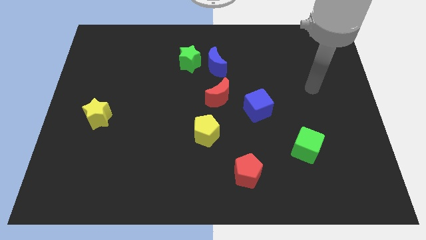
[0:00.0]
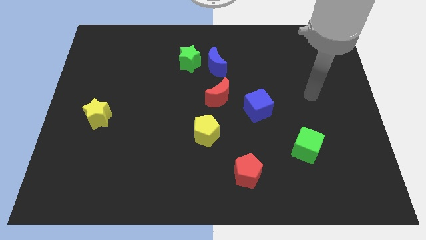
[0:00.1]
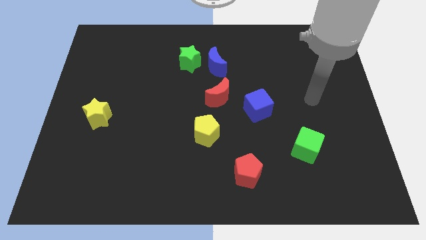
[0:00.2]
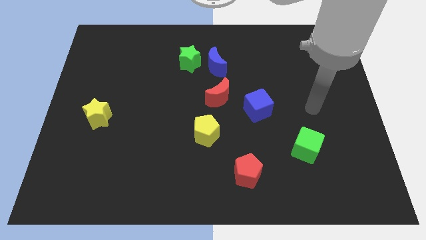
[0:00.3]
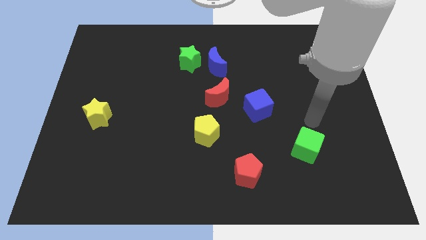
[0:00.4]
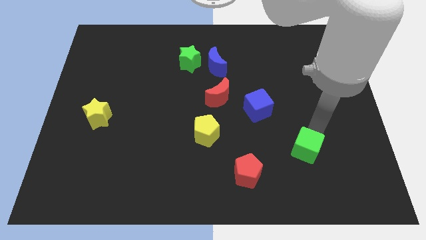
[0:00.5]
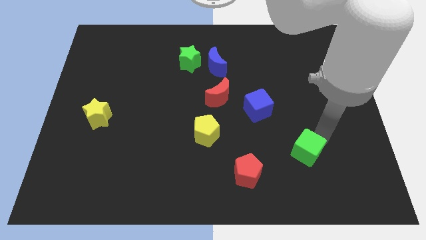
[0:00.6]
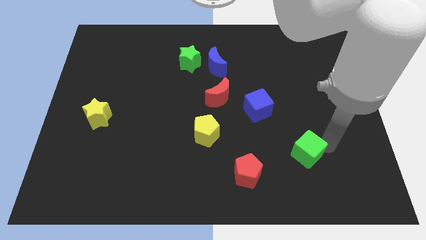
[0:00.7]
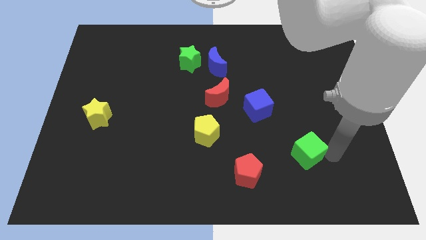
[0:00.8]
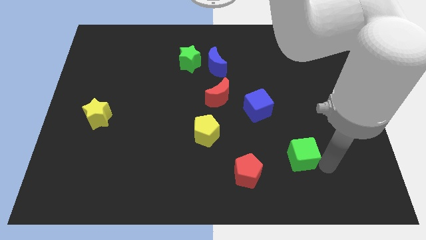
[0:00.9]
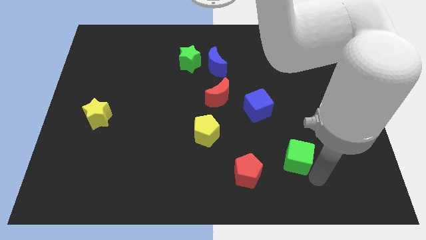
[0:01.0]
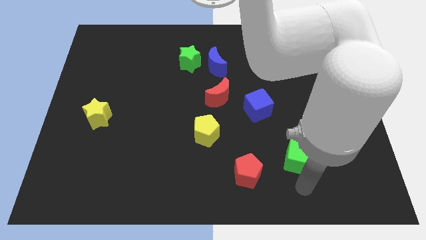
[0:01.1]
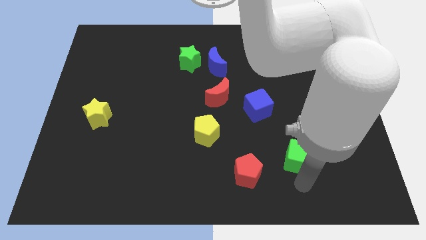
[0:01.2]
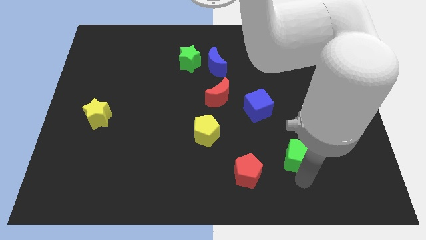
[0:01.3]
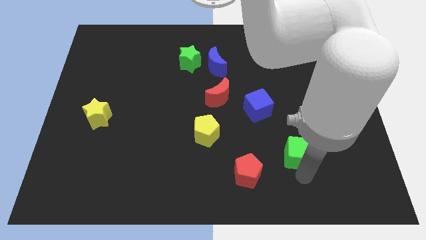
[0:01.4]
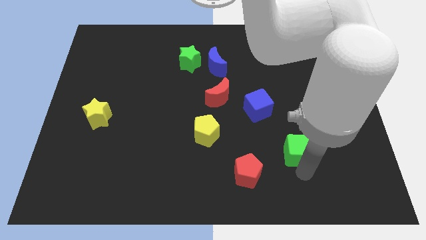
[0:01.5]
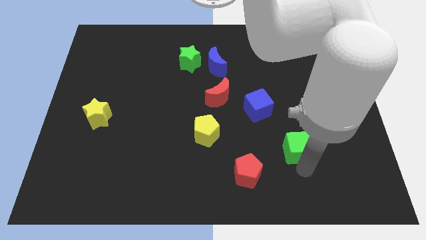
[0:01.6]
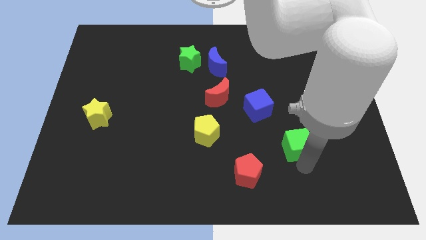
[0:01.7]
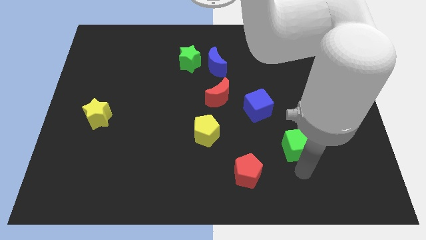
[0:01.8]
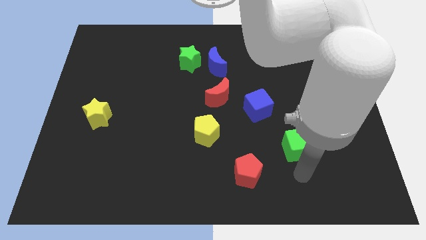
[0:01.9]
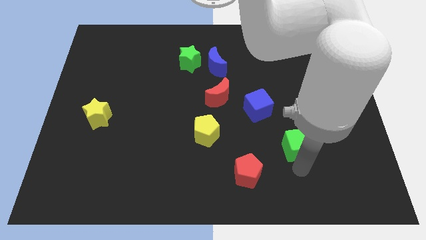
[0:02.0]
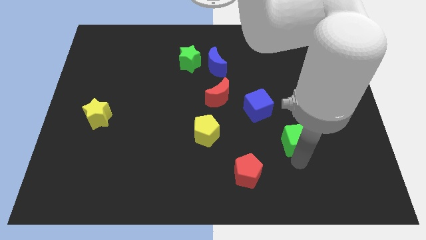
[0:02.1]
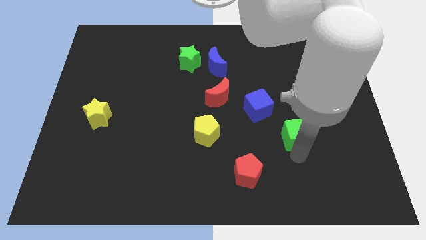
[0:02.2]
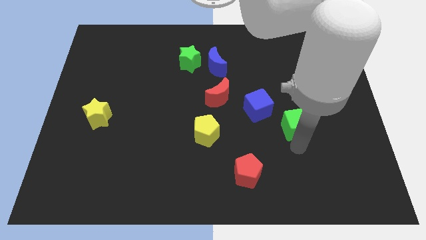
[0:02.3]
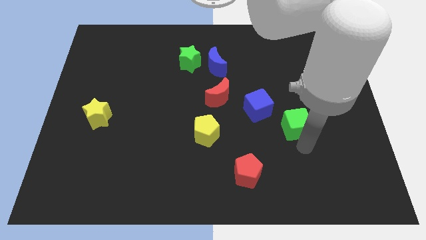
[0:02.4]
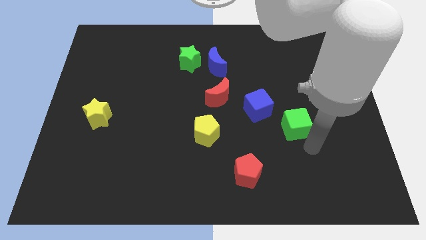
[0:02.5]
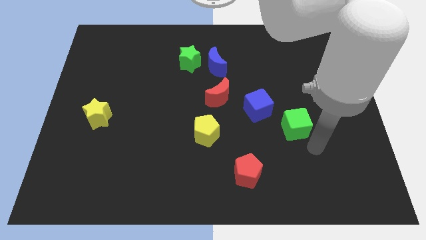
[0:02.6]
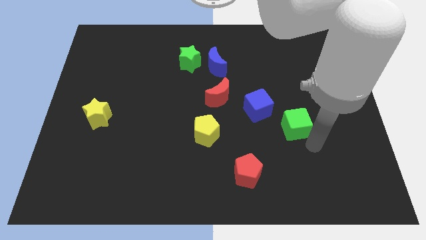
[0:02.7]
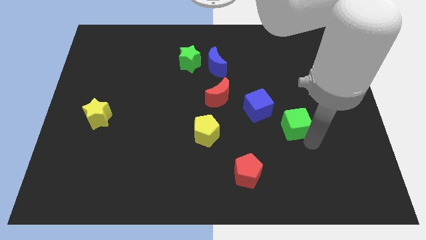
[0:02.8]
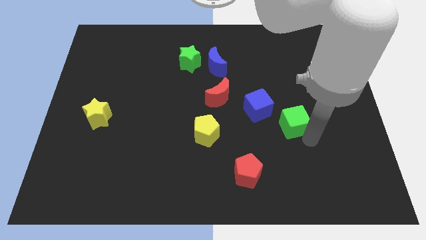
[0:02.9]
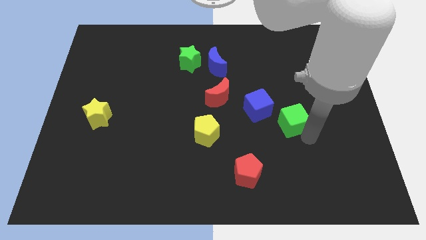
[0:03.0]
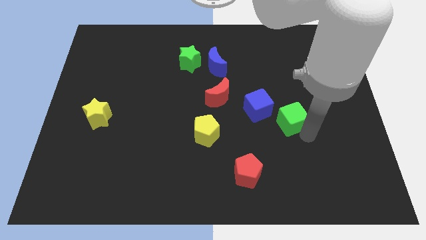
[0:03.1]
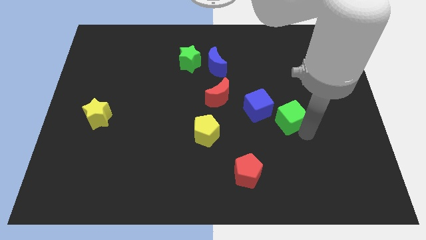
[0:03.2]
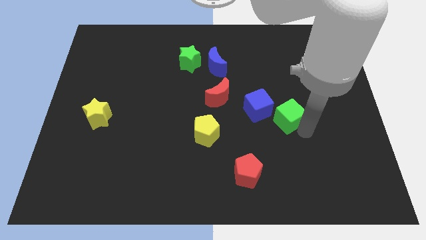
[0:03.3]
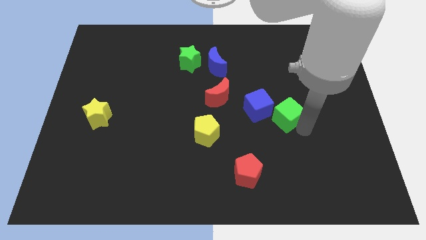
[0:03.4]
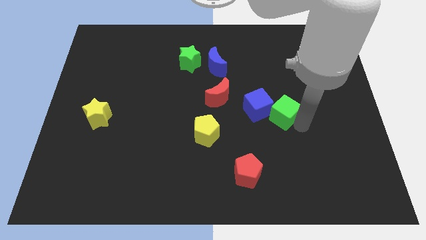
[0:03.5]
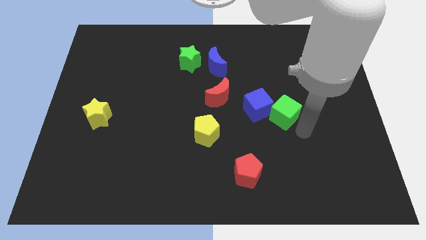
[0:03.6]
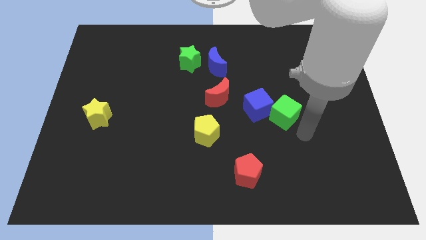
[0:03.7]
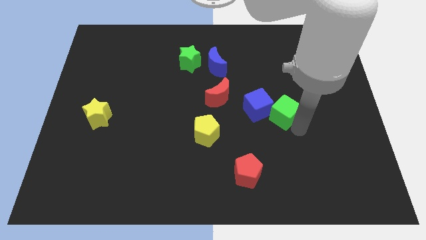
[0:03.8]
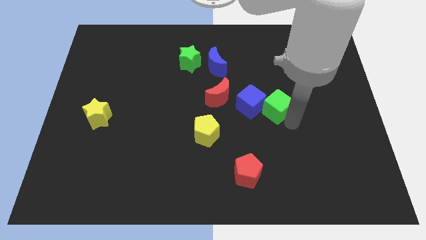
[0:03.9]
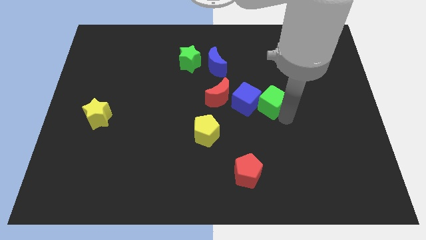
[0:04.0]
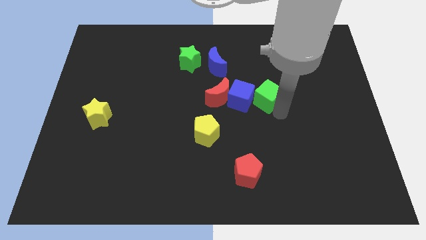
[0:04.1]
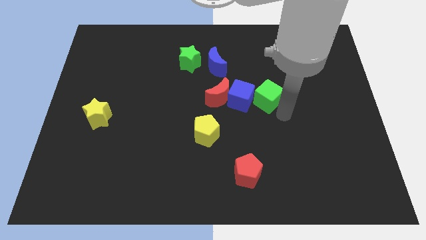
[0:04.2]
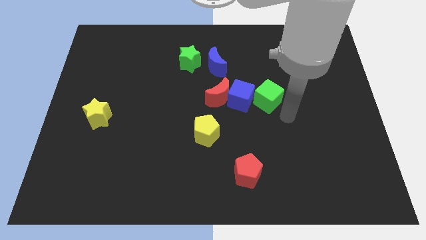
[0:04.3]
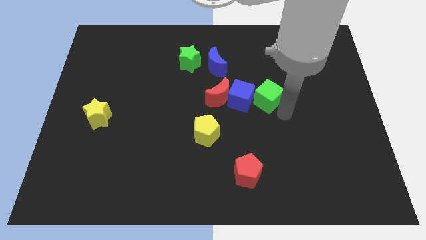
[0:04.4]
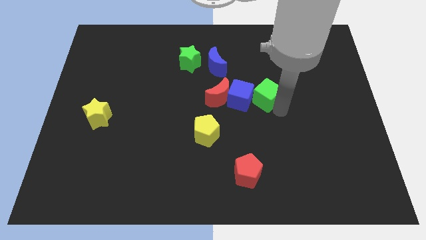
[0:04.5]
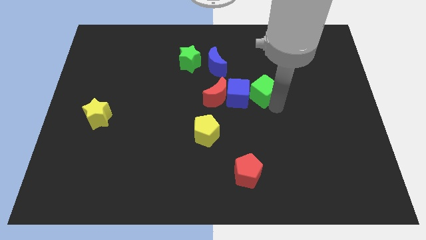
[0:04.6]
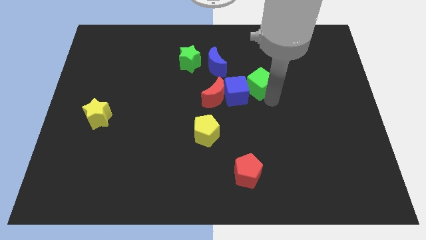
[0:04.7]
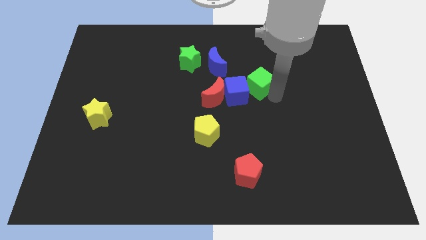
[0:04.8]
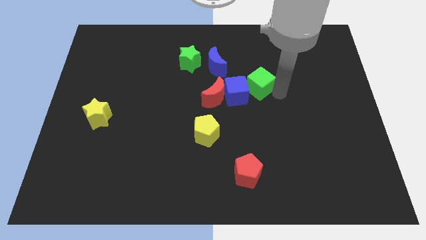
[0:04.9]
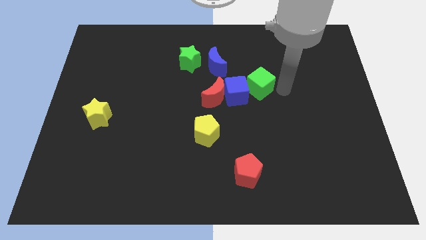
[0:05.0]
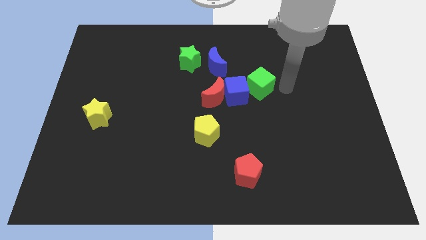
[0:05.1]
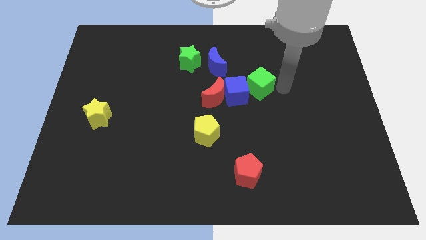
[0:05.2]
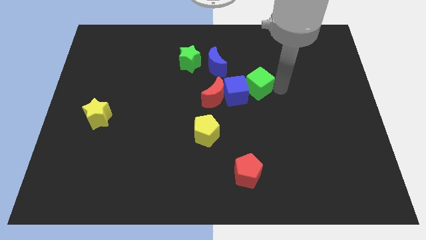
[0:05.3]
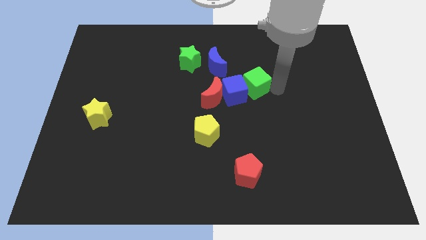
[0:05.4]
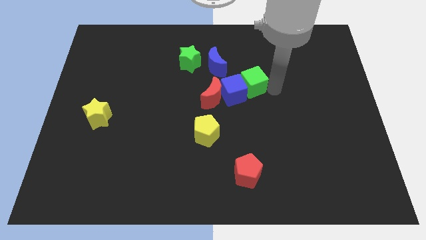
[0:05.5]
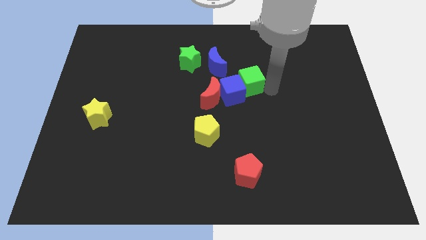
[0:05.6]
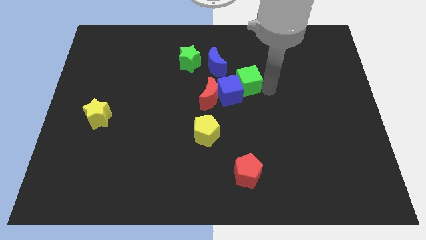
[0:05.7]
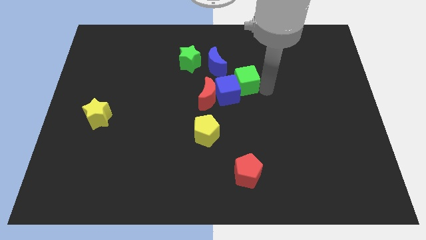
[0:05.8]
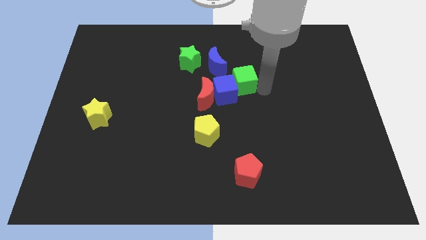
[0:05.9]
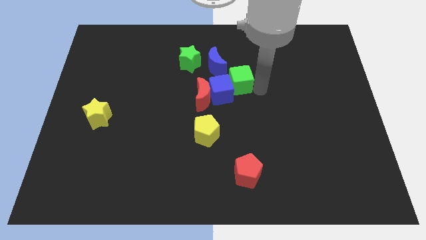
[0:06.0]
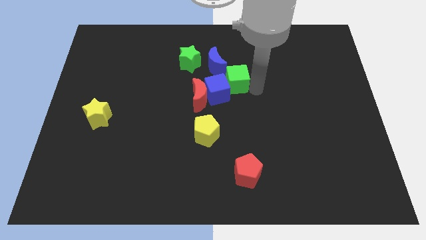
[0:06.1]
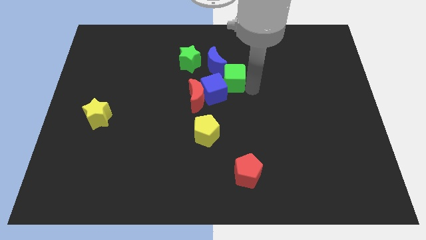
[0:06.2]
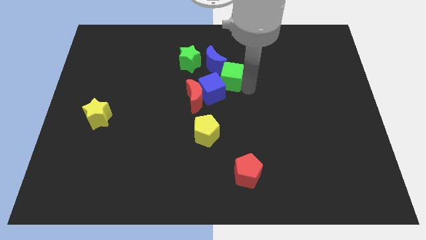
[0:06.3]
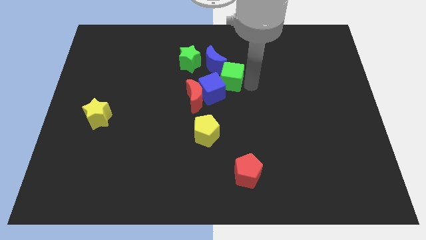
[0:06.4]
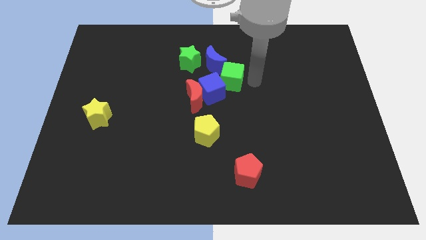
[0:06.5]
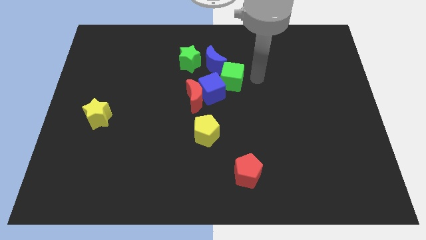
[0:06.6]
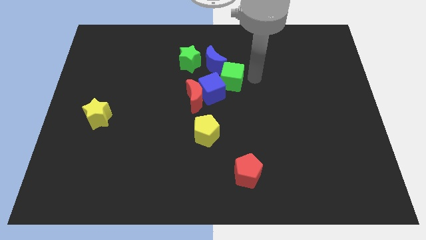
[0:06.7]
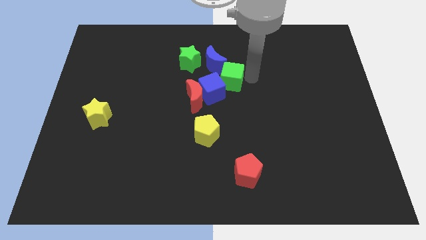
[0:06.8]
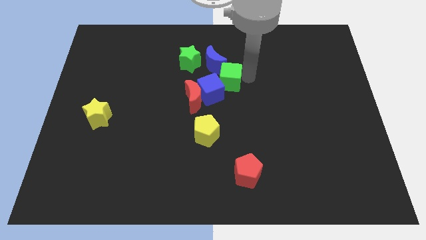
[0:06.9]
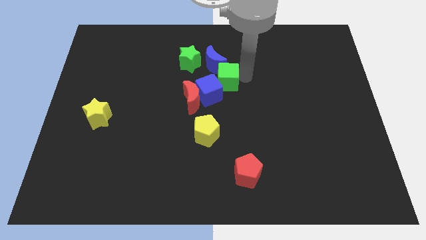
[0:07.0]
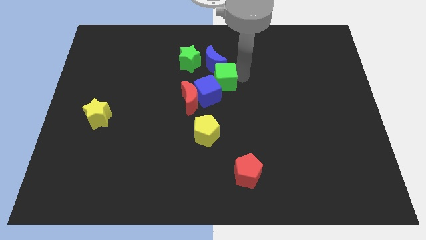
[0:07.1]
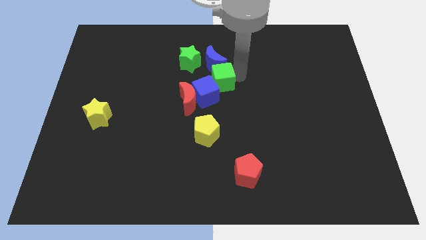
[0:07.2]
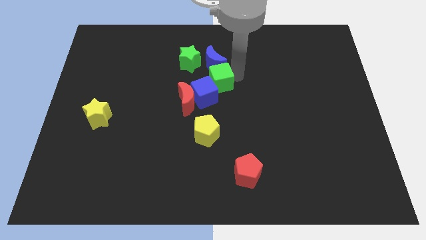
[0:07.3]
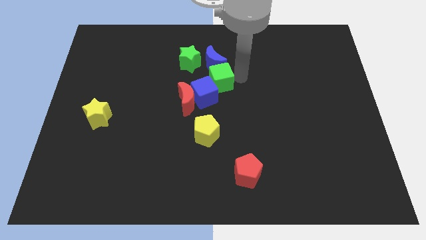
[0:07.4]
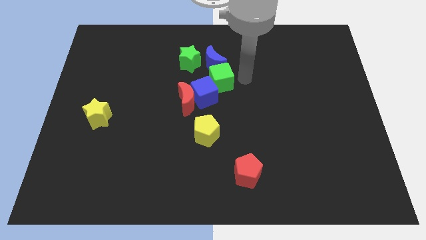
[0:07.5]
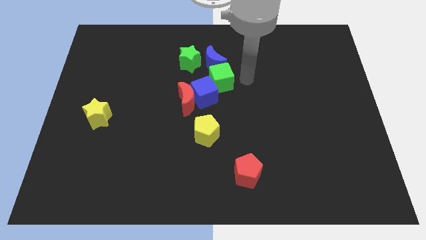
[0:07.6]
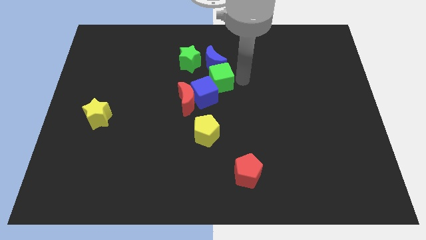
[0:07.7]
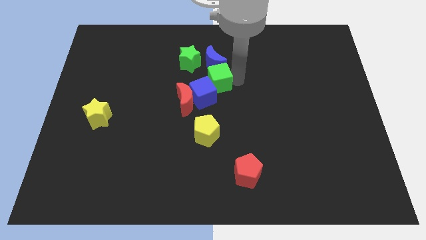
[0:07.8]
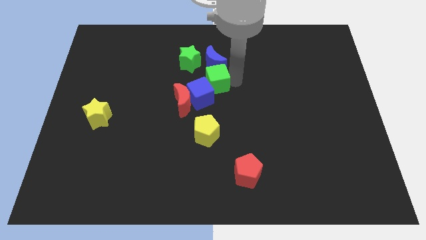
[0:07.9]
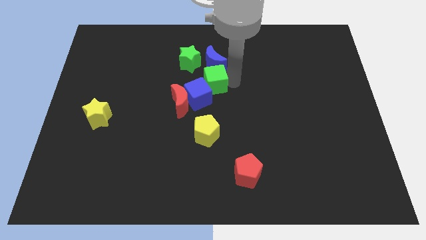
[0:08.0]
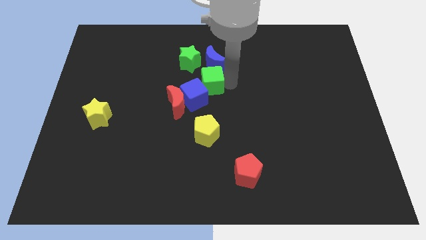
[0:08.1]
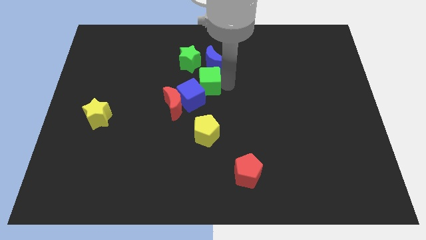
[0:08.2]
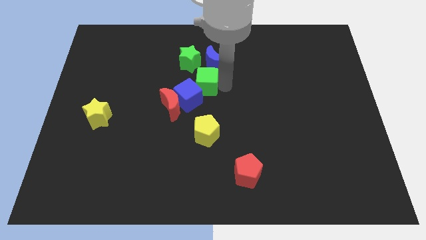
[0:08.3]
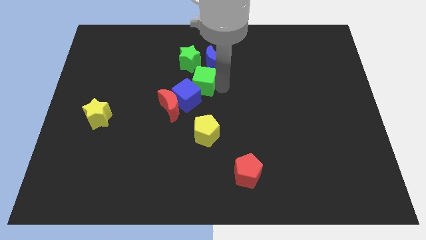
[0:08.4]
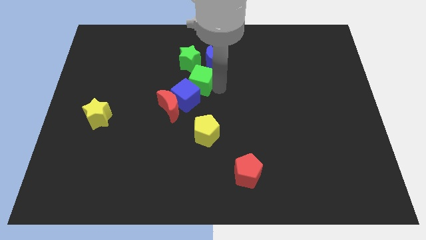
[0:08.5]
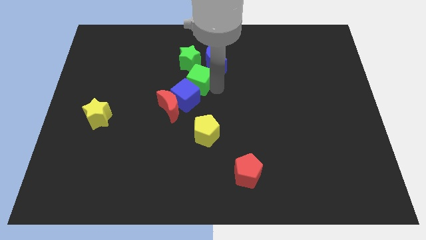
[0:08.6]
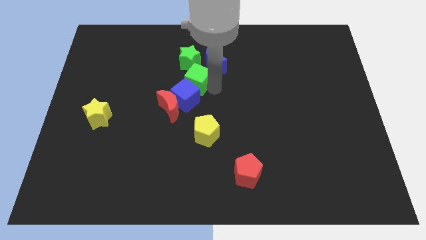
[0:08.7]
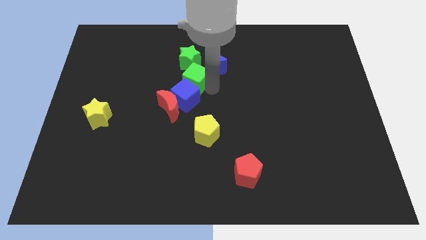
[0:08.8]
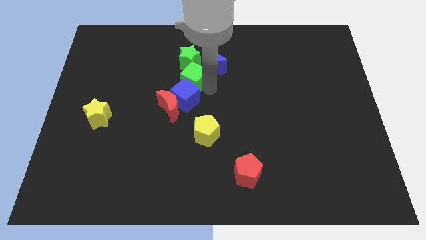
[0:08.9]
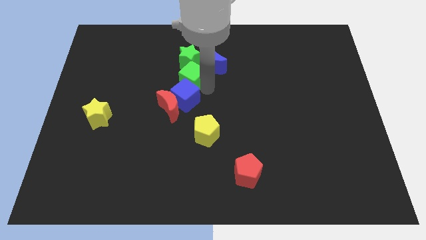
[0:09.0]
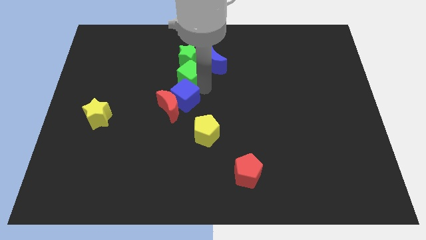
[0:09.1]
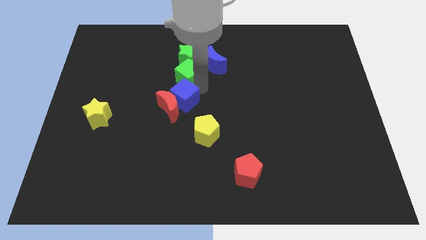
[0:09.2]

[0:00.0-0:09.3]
slide the green cube close to the green star
